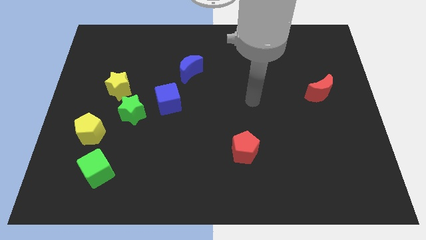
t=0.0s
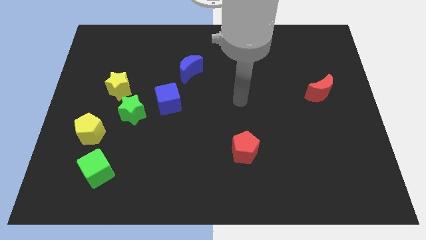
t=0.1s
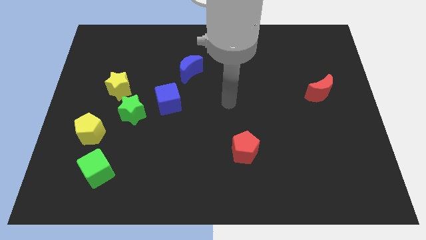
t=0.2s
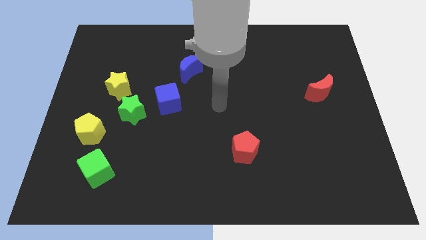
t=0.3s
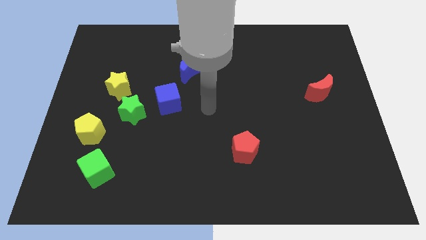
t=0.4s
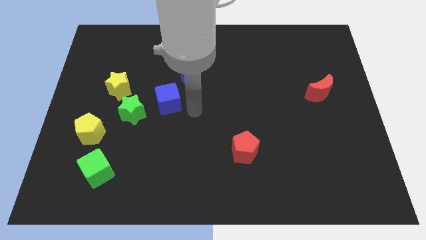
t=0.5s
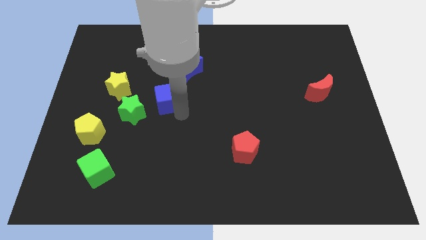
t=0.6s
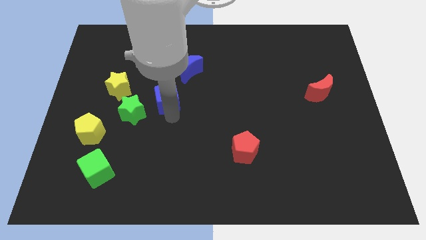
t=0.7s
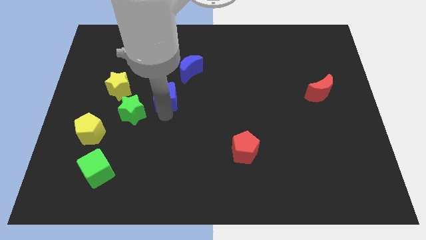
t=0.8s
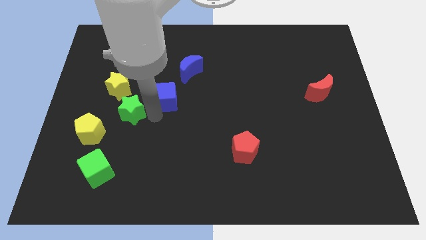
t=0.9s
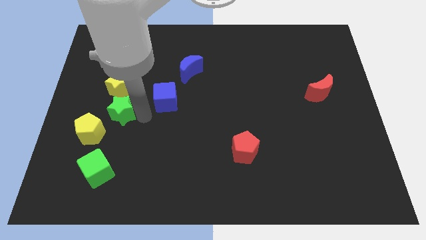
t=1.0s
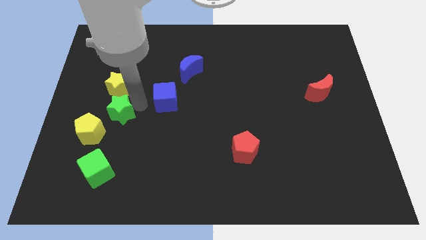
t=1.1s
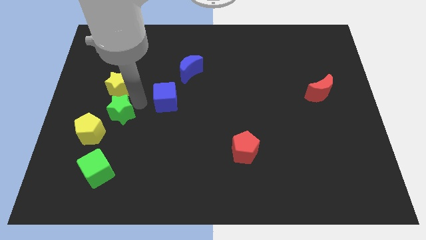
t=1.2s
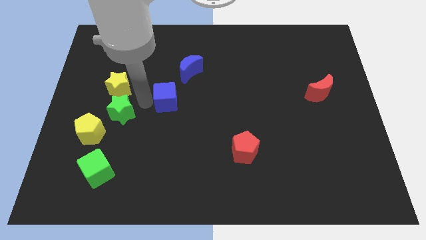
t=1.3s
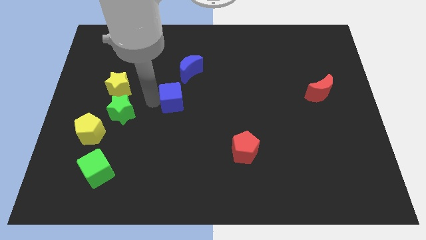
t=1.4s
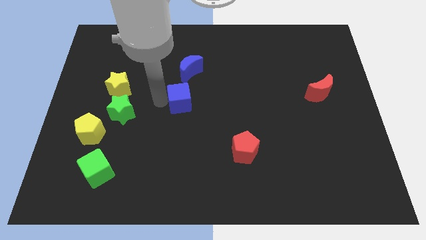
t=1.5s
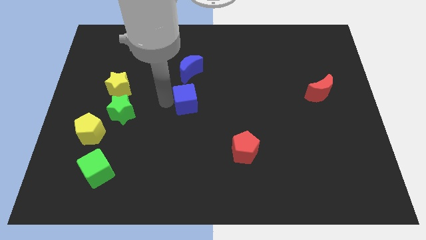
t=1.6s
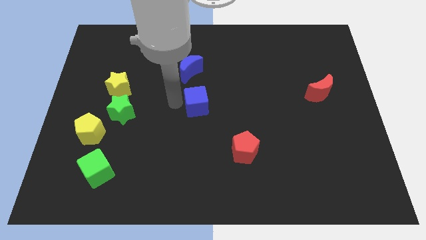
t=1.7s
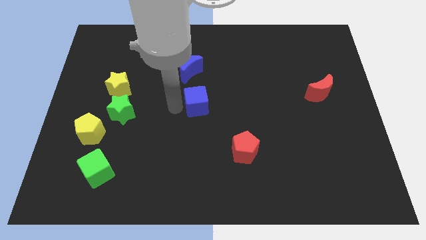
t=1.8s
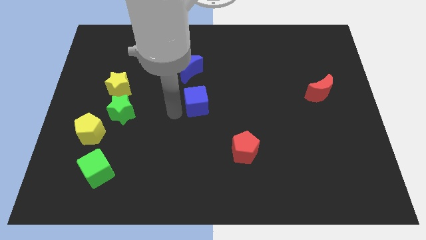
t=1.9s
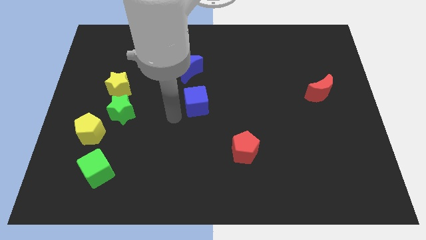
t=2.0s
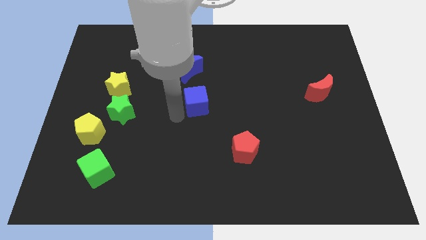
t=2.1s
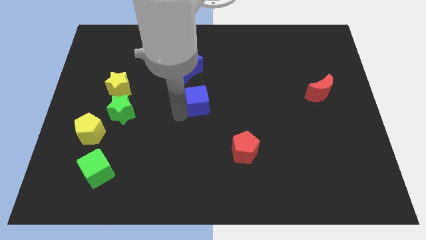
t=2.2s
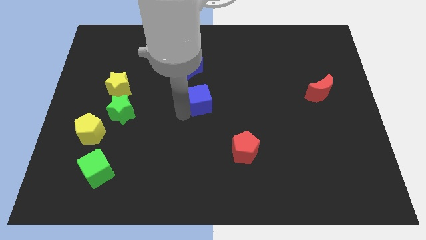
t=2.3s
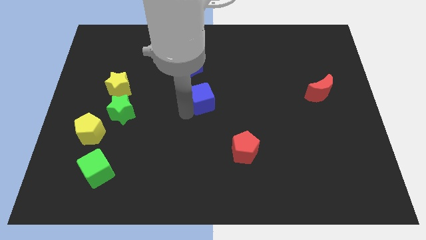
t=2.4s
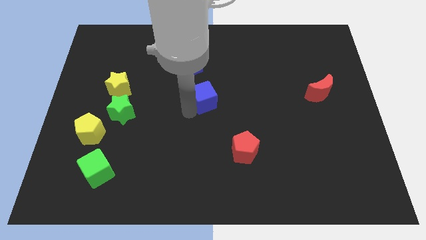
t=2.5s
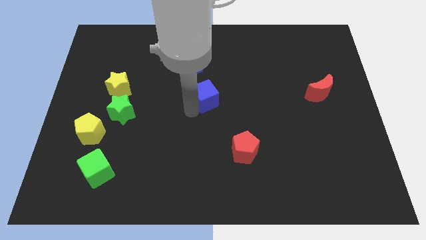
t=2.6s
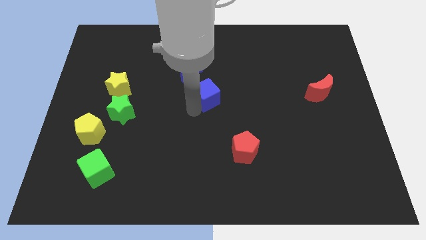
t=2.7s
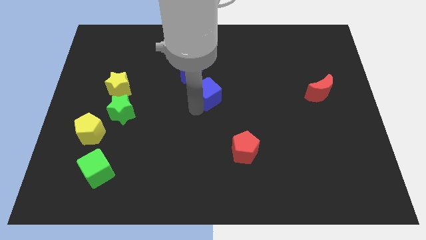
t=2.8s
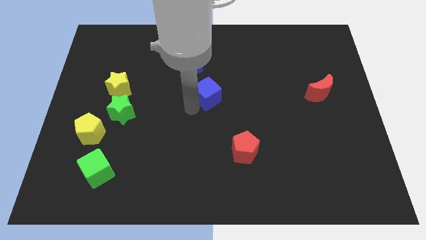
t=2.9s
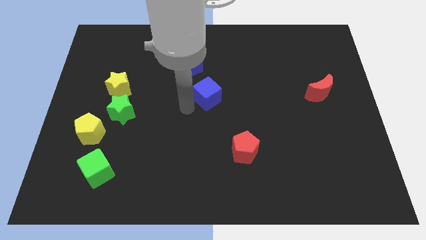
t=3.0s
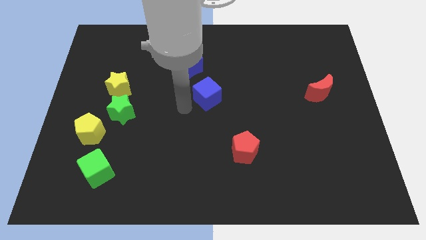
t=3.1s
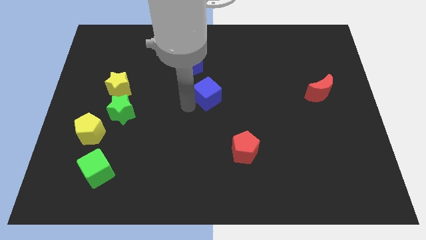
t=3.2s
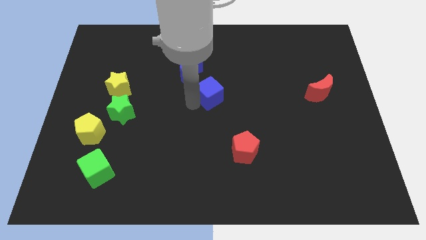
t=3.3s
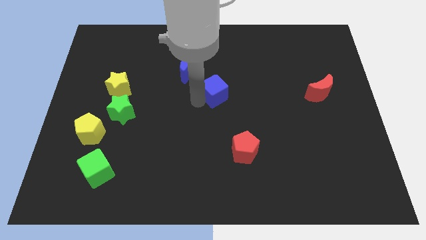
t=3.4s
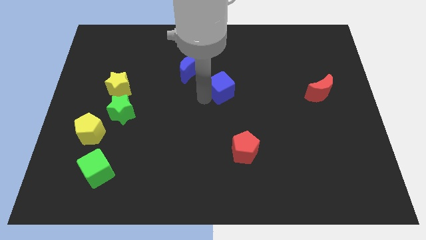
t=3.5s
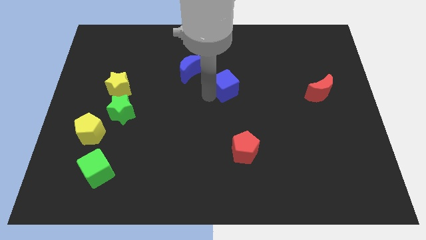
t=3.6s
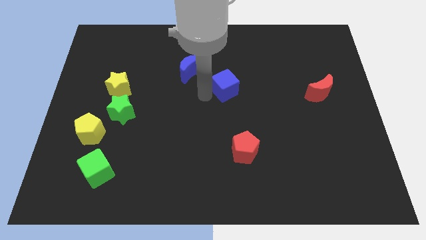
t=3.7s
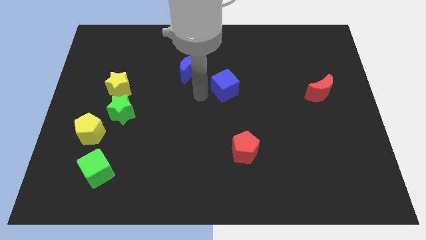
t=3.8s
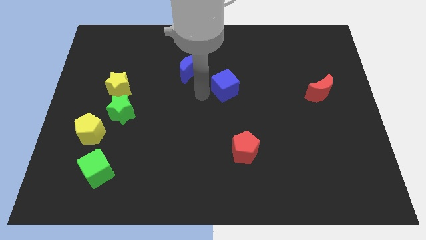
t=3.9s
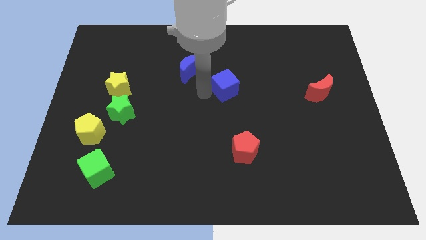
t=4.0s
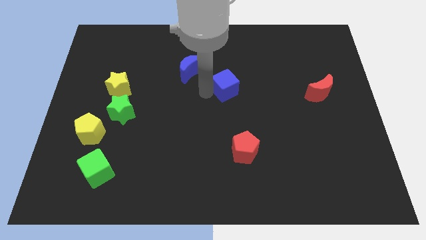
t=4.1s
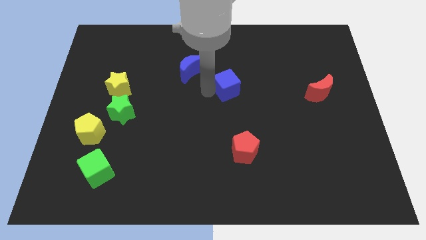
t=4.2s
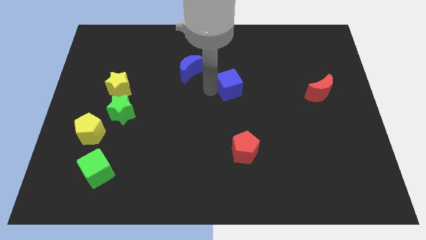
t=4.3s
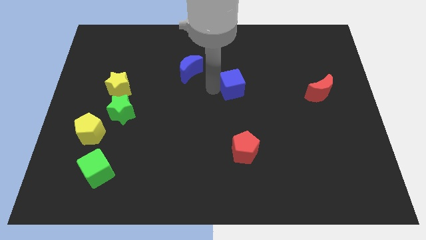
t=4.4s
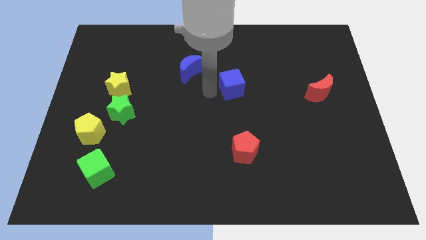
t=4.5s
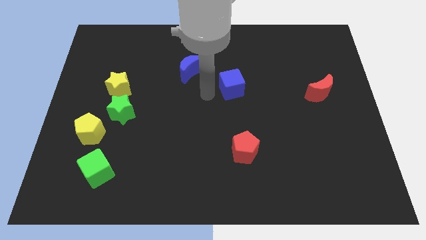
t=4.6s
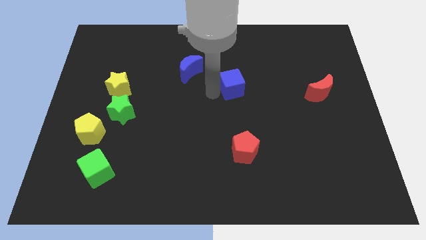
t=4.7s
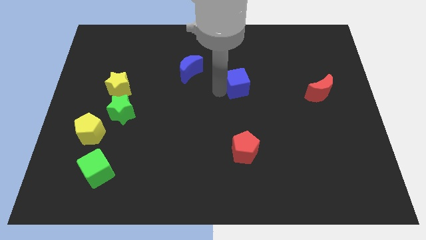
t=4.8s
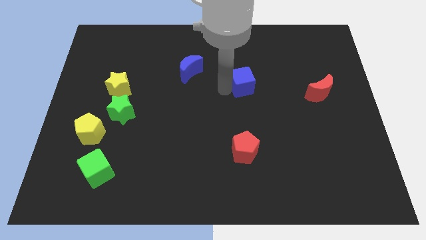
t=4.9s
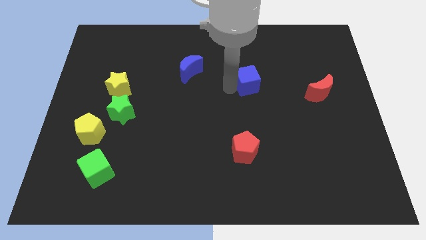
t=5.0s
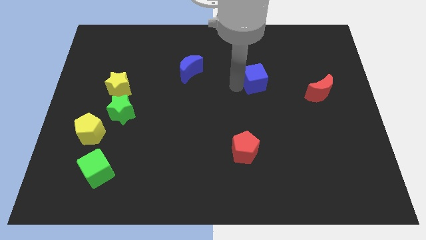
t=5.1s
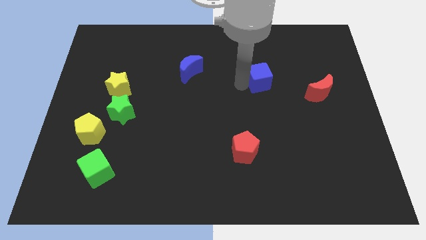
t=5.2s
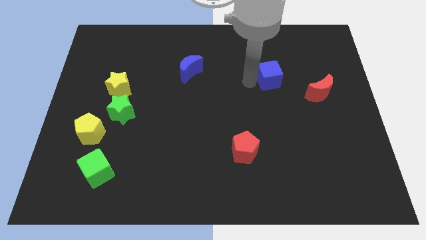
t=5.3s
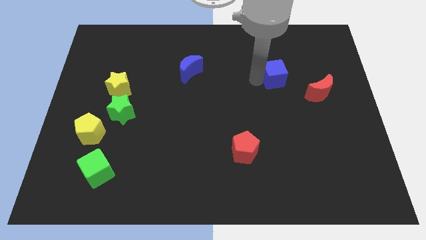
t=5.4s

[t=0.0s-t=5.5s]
put the blue cube to the top left of the red moon

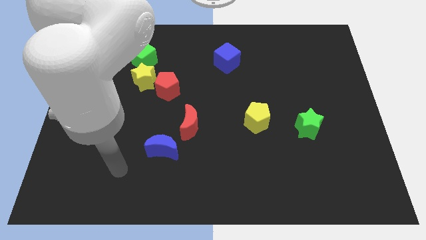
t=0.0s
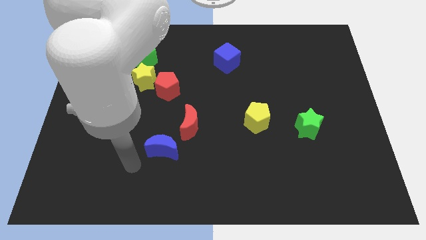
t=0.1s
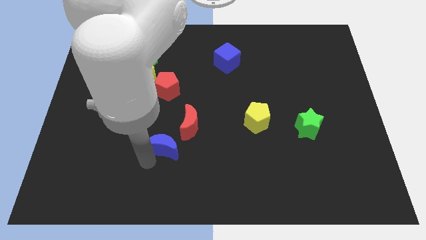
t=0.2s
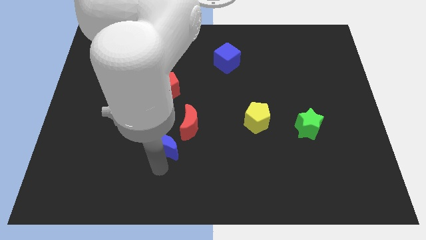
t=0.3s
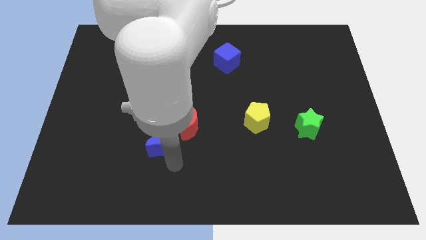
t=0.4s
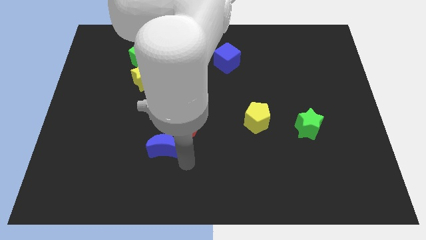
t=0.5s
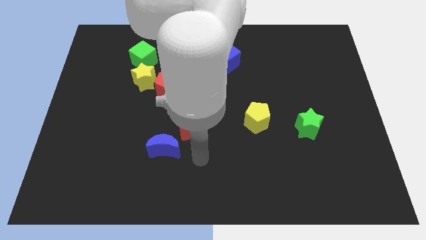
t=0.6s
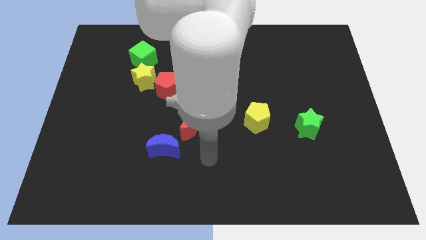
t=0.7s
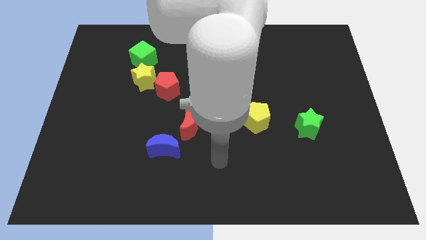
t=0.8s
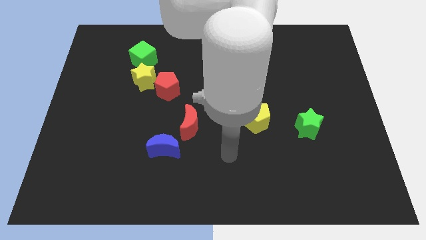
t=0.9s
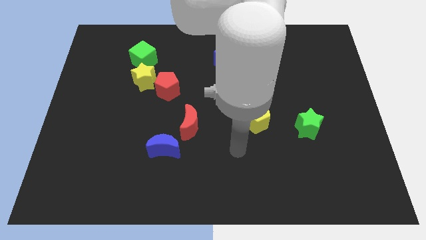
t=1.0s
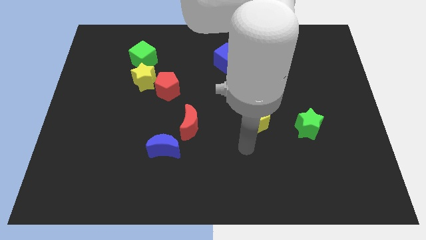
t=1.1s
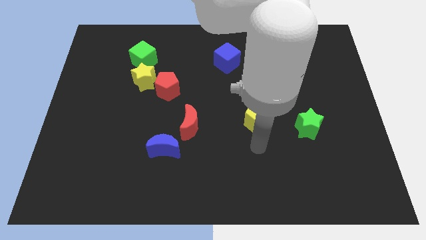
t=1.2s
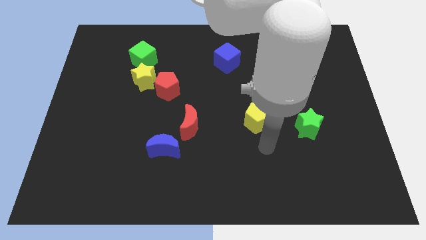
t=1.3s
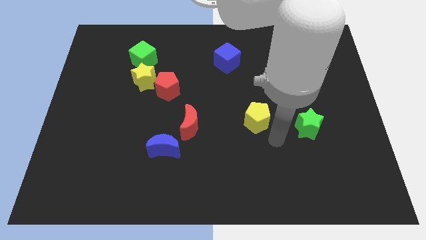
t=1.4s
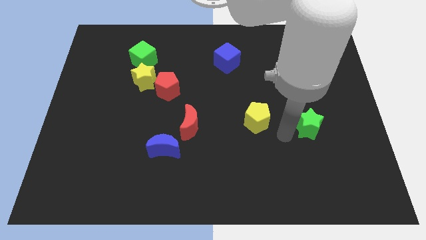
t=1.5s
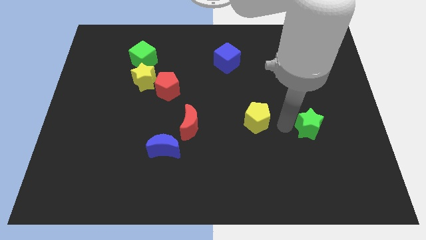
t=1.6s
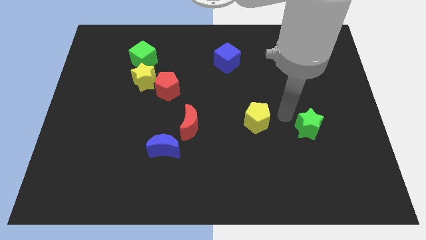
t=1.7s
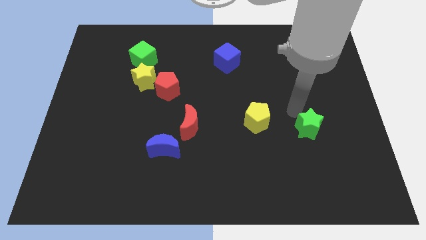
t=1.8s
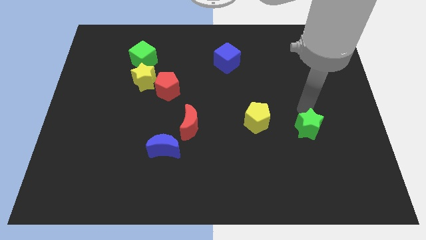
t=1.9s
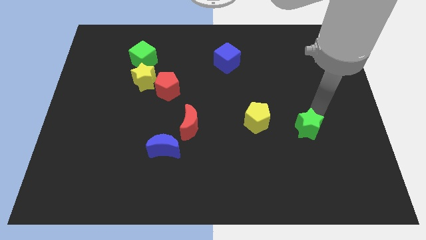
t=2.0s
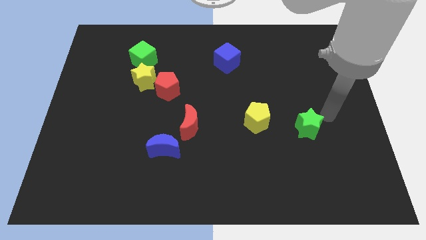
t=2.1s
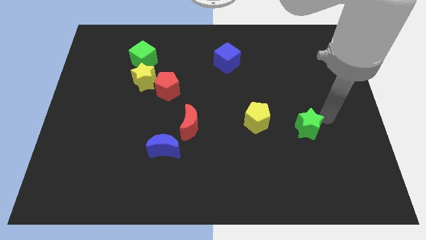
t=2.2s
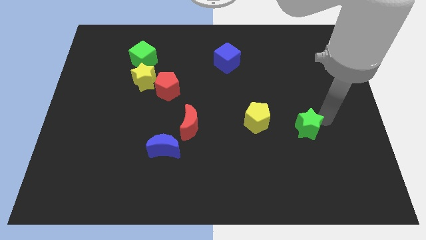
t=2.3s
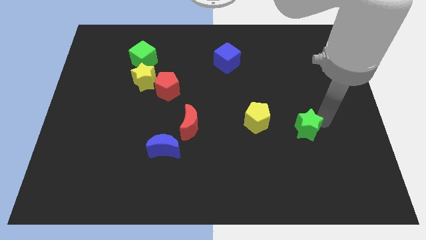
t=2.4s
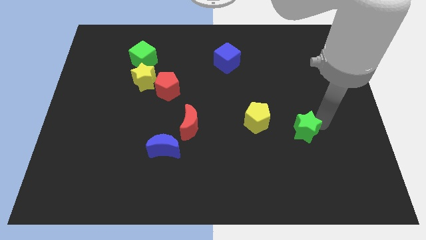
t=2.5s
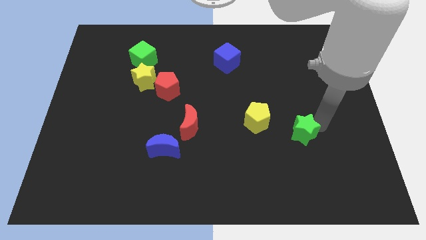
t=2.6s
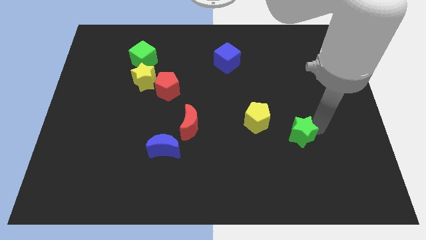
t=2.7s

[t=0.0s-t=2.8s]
put the green star to the bottom right side of the yellow pentagon
